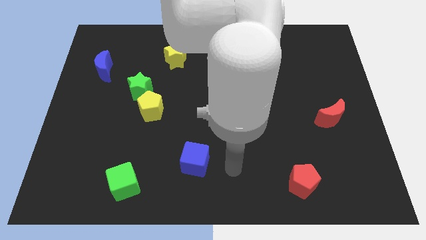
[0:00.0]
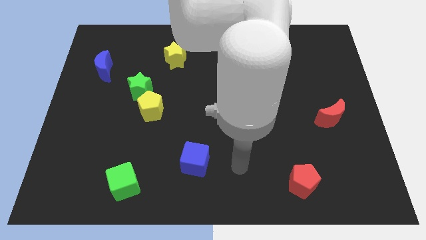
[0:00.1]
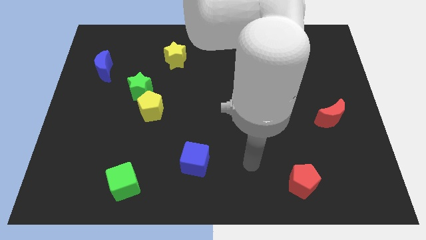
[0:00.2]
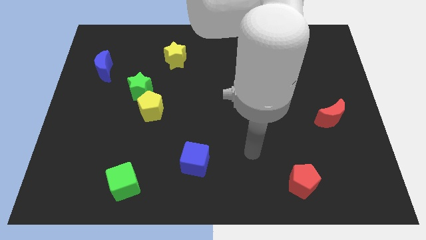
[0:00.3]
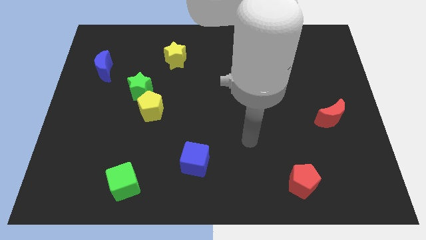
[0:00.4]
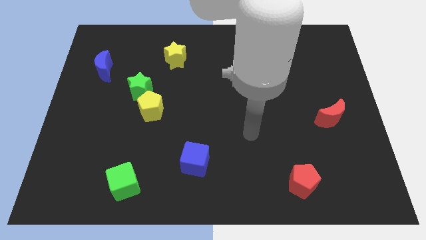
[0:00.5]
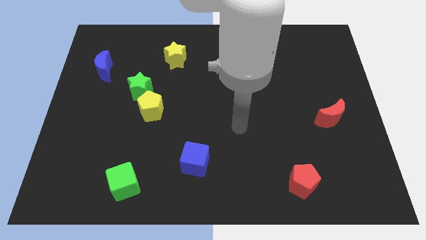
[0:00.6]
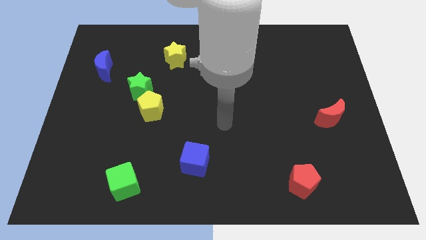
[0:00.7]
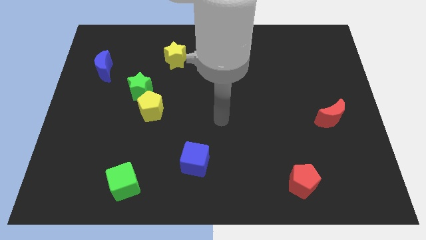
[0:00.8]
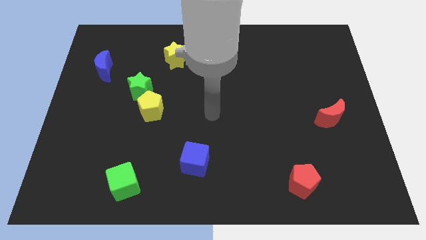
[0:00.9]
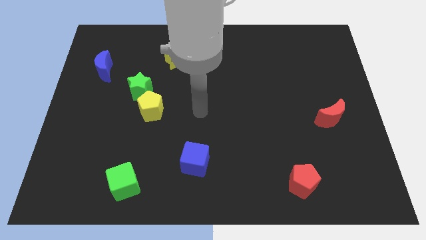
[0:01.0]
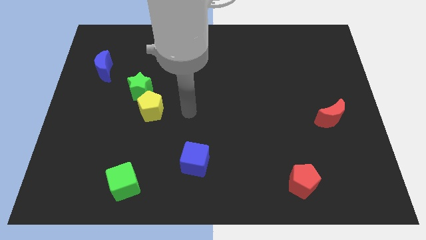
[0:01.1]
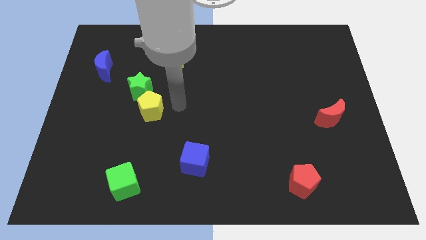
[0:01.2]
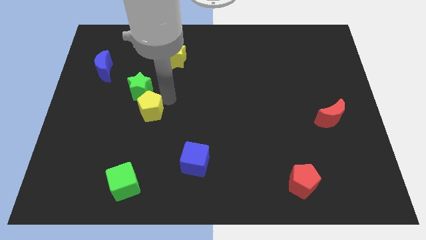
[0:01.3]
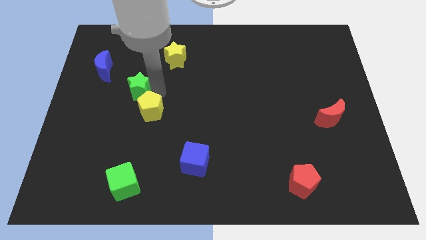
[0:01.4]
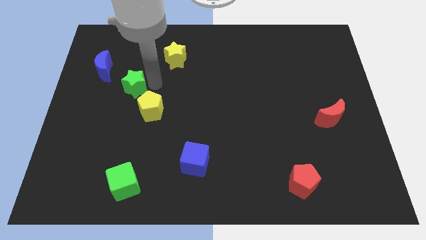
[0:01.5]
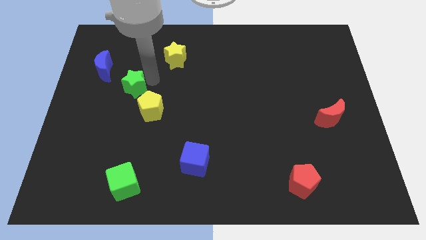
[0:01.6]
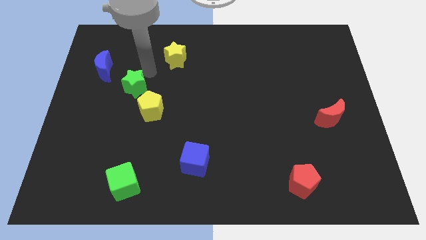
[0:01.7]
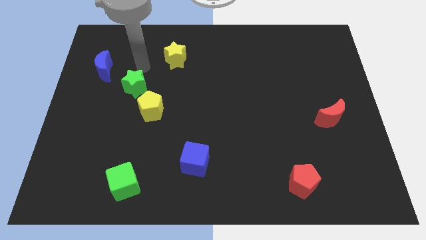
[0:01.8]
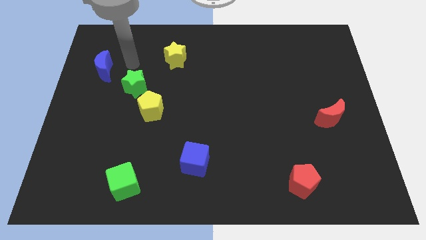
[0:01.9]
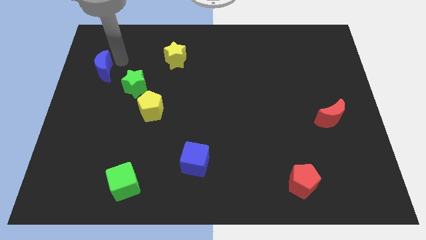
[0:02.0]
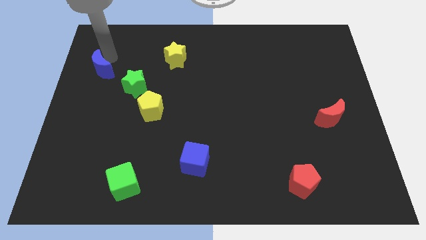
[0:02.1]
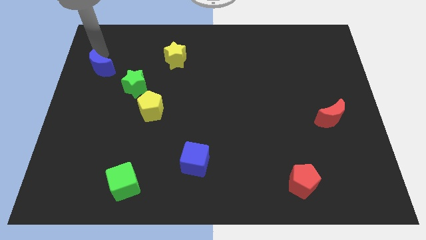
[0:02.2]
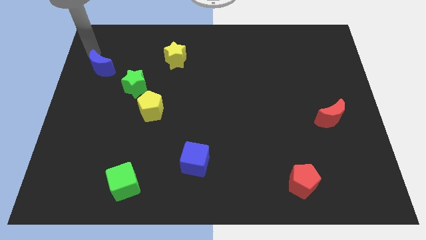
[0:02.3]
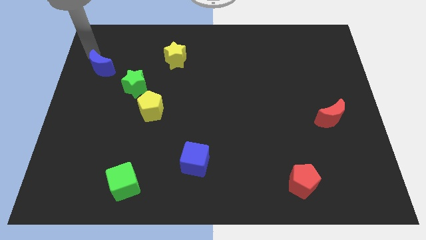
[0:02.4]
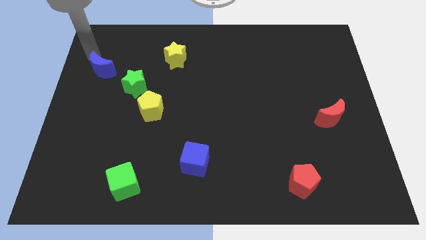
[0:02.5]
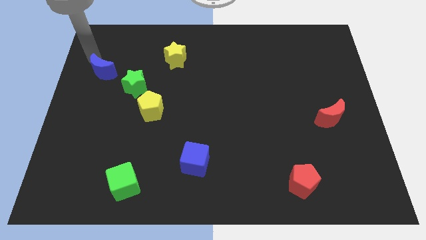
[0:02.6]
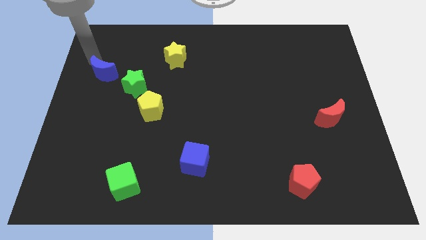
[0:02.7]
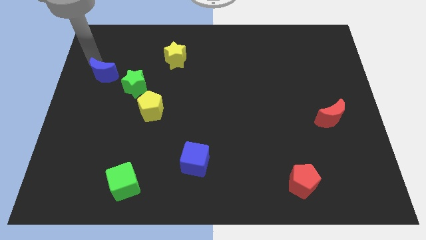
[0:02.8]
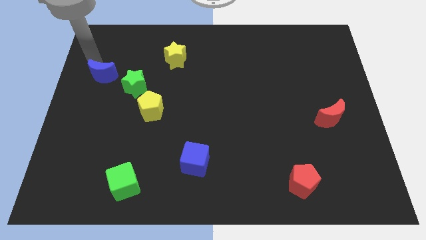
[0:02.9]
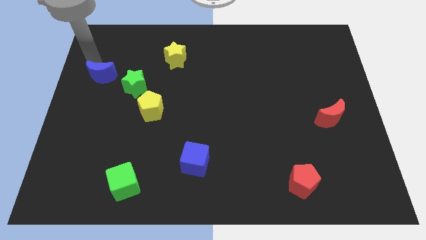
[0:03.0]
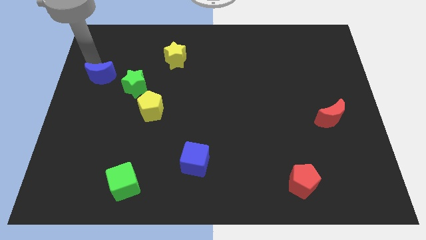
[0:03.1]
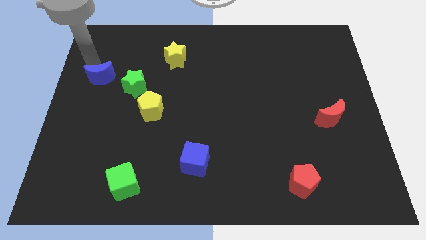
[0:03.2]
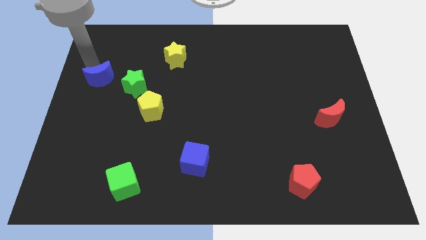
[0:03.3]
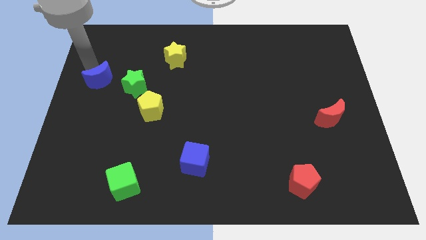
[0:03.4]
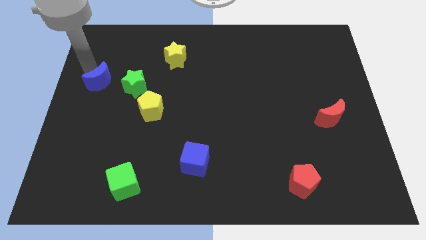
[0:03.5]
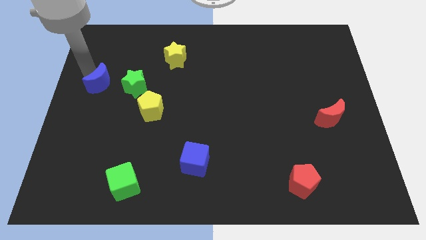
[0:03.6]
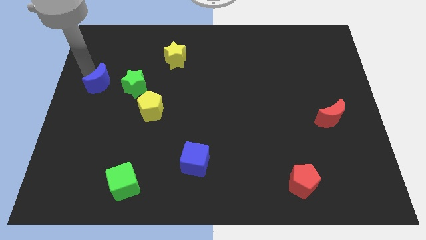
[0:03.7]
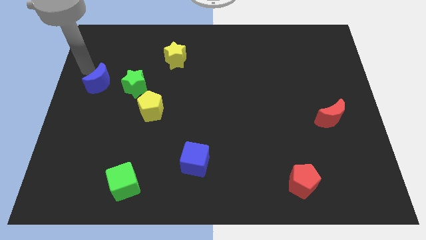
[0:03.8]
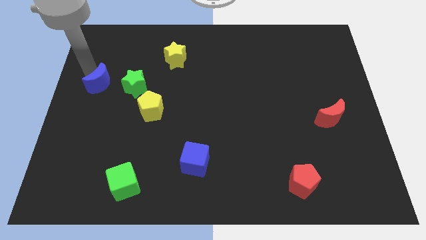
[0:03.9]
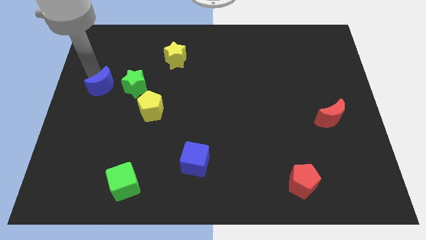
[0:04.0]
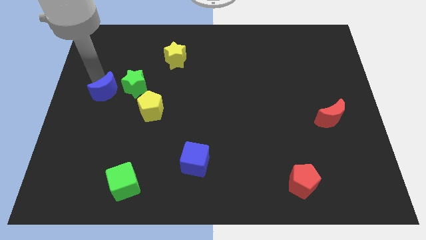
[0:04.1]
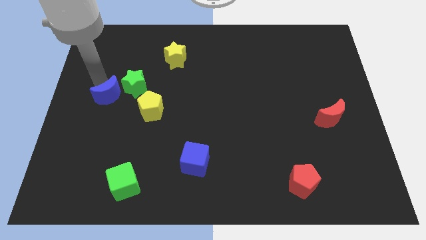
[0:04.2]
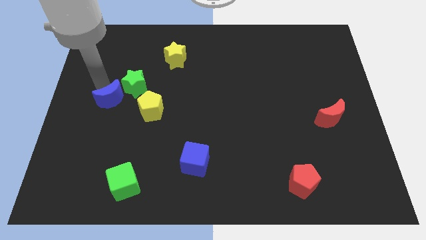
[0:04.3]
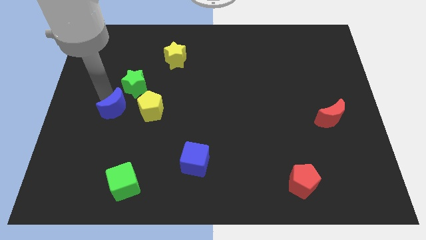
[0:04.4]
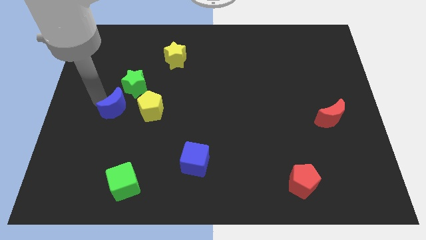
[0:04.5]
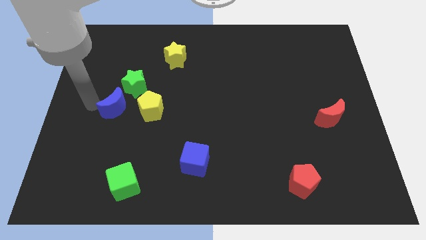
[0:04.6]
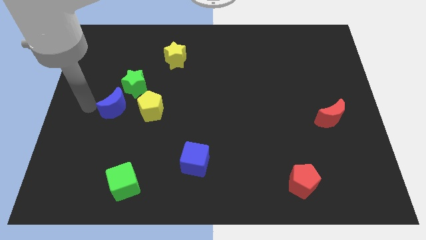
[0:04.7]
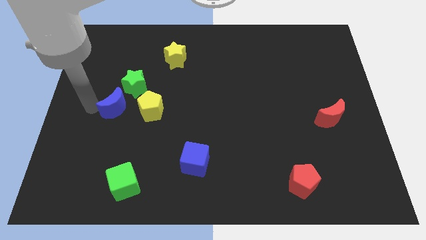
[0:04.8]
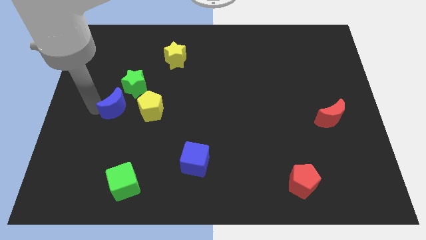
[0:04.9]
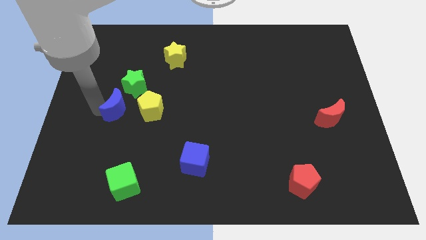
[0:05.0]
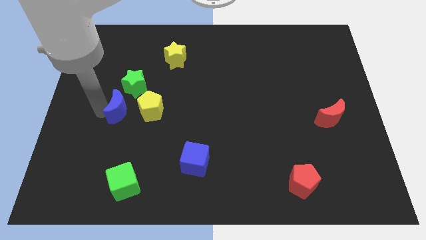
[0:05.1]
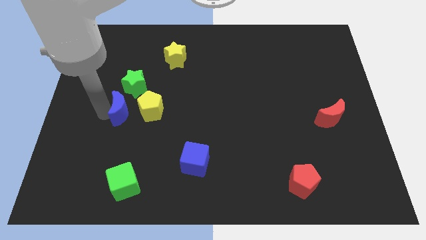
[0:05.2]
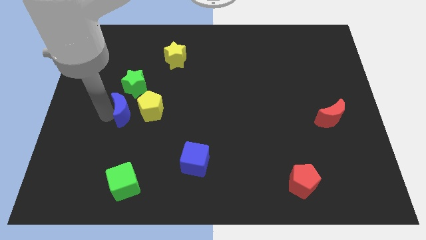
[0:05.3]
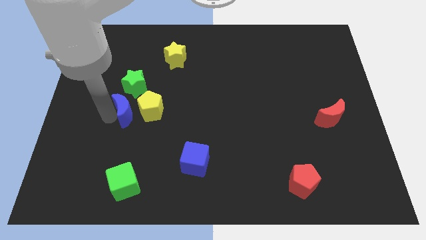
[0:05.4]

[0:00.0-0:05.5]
move the blue moon to the yellow pentagon

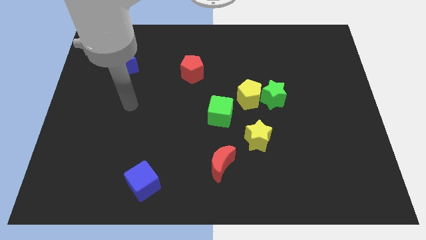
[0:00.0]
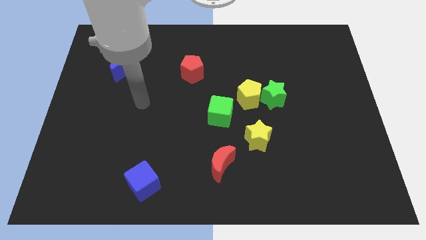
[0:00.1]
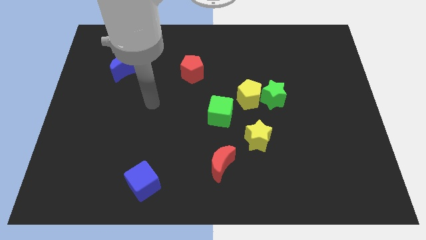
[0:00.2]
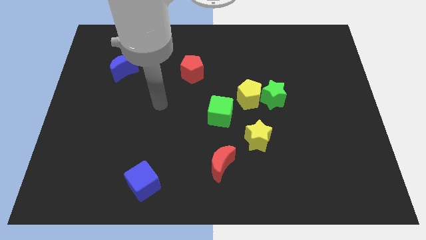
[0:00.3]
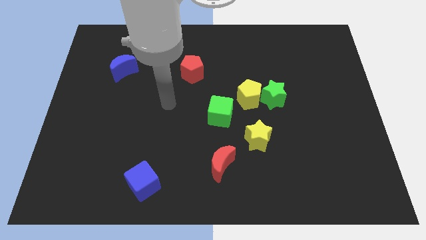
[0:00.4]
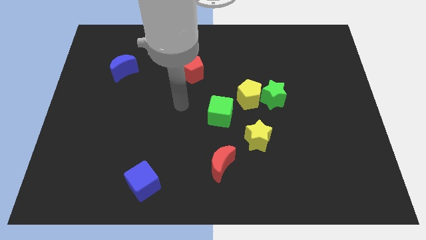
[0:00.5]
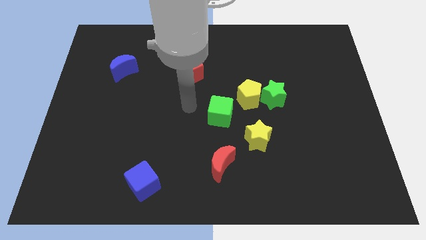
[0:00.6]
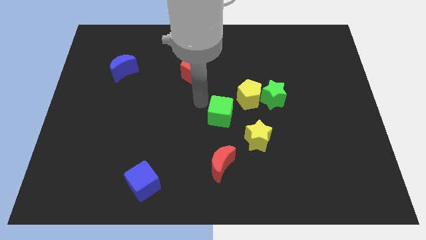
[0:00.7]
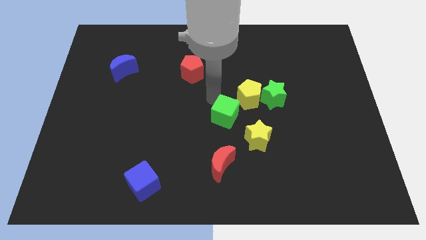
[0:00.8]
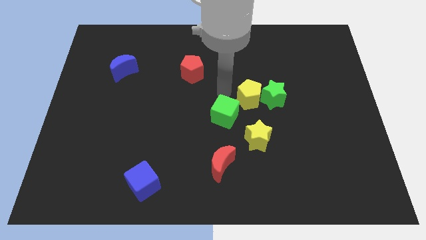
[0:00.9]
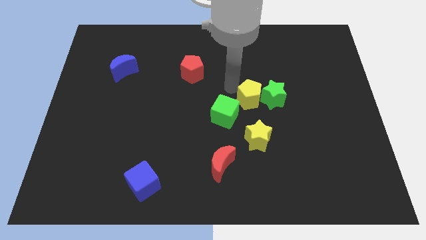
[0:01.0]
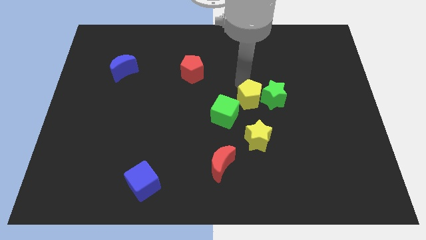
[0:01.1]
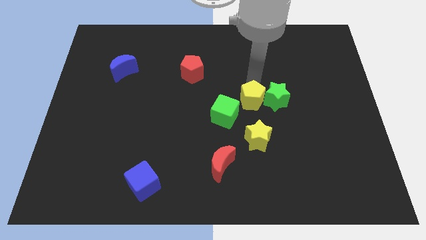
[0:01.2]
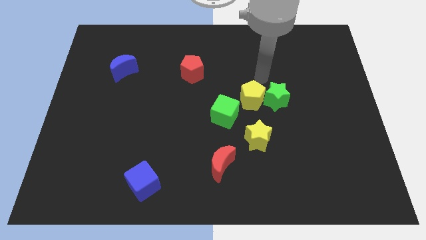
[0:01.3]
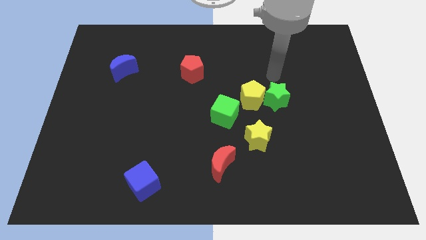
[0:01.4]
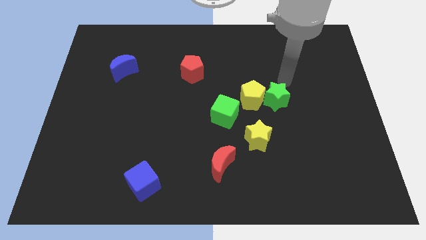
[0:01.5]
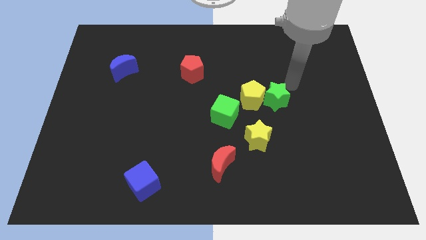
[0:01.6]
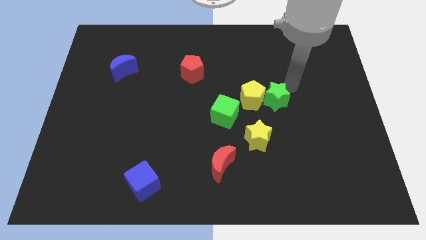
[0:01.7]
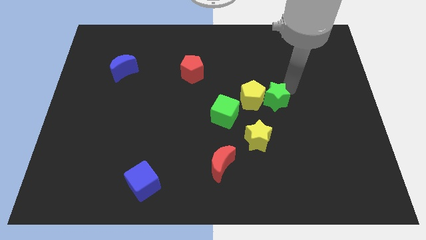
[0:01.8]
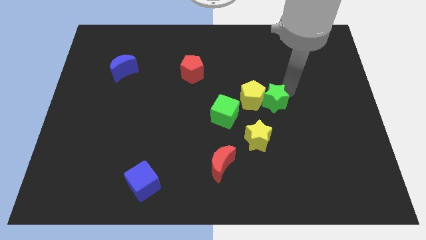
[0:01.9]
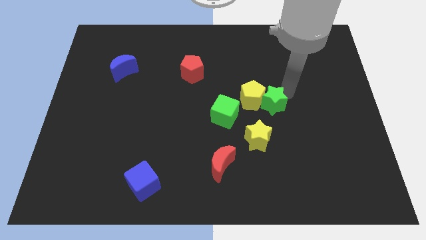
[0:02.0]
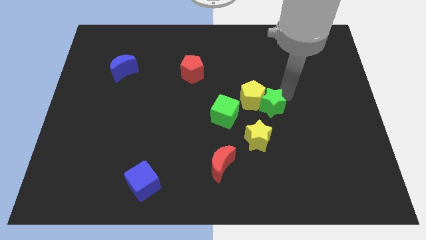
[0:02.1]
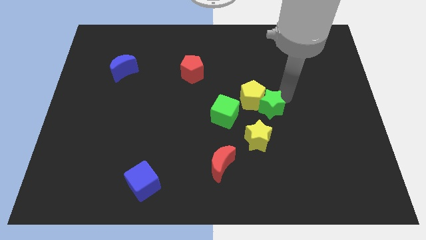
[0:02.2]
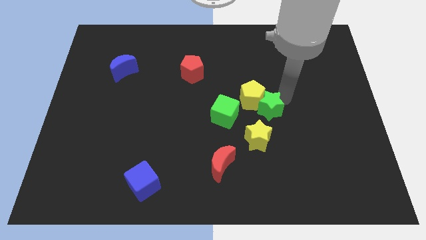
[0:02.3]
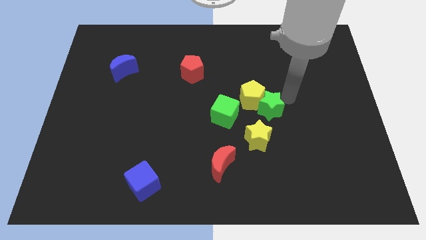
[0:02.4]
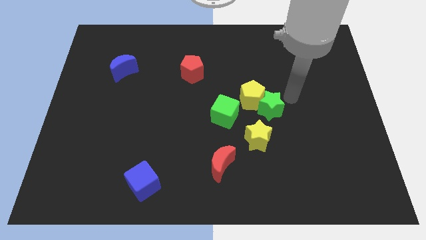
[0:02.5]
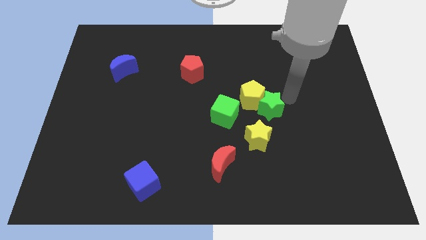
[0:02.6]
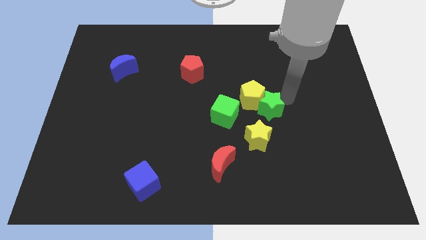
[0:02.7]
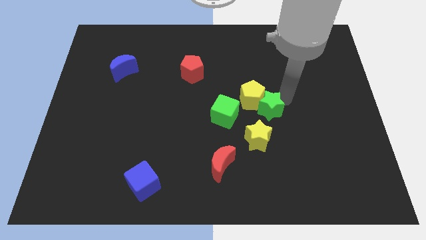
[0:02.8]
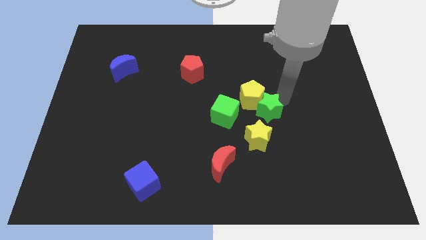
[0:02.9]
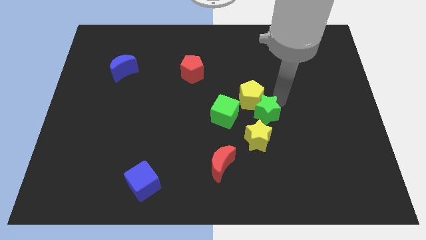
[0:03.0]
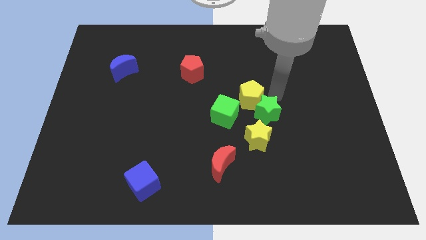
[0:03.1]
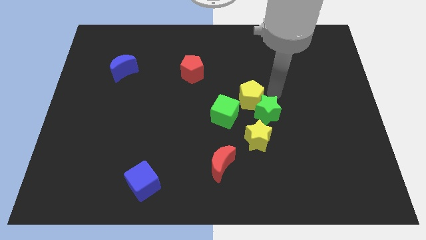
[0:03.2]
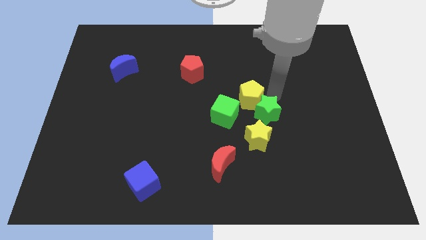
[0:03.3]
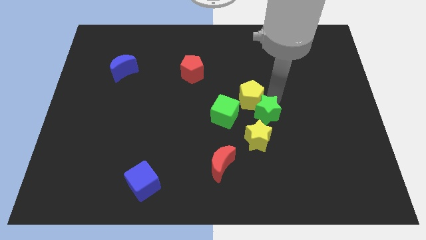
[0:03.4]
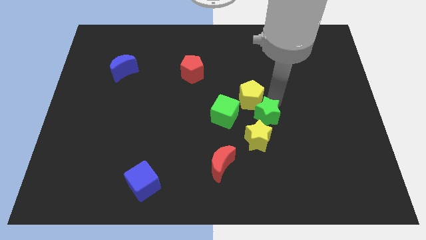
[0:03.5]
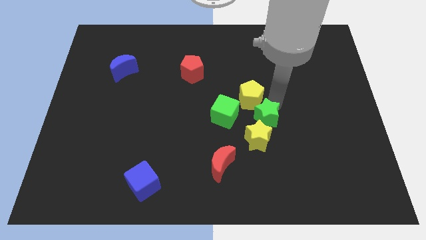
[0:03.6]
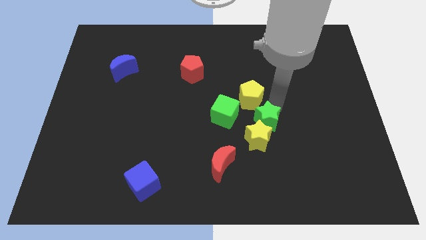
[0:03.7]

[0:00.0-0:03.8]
move the green star to the yellow star
